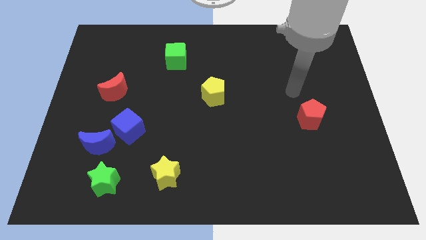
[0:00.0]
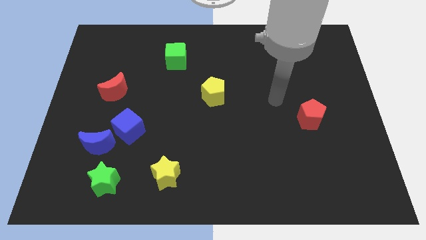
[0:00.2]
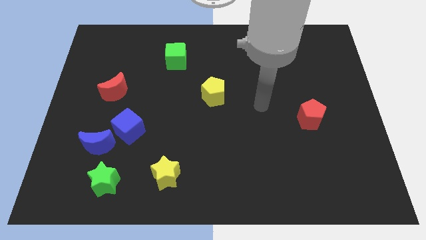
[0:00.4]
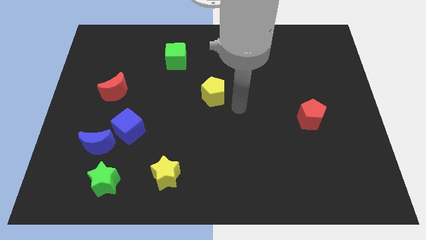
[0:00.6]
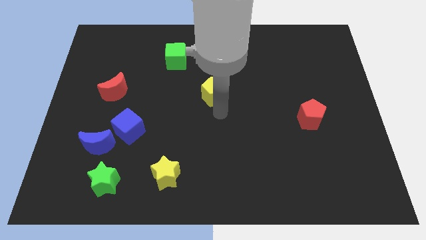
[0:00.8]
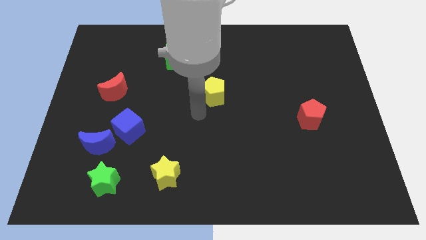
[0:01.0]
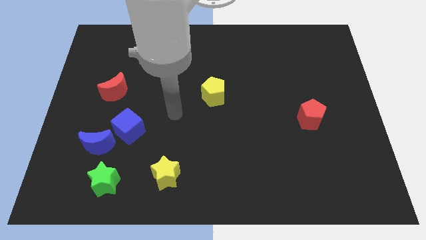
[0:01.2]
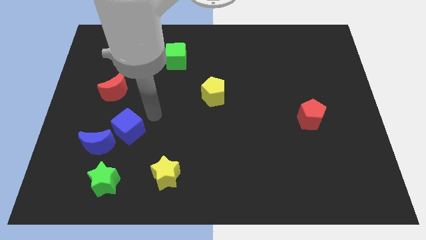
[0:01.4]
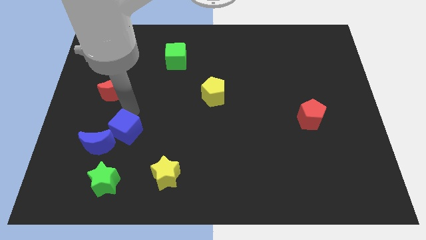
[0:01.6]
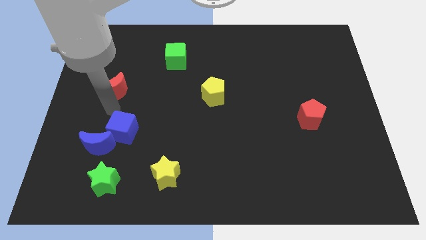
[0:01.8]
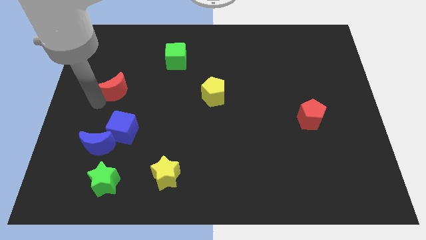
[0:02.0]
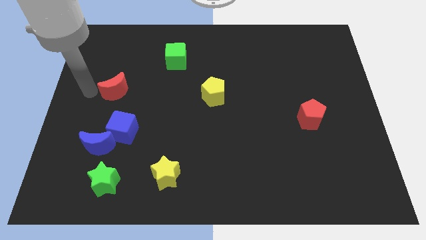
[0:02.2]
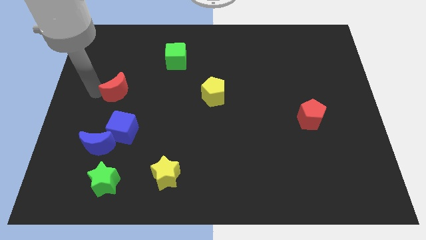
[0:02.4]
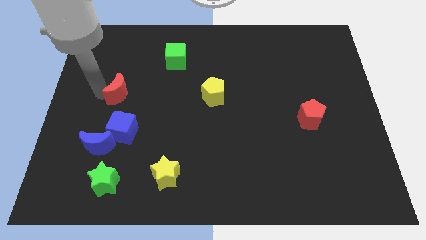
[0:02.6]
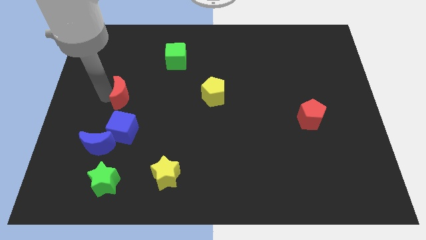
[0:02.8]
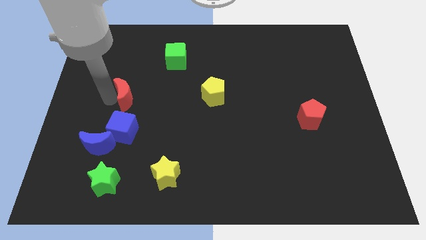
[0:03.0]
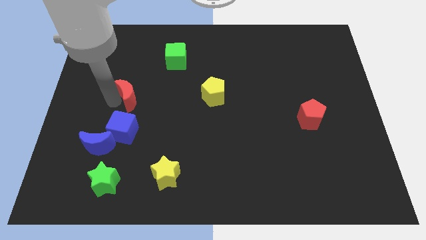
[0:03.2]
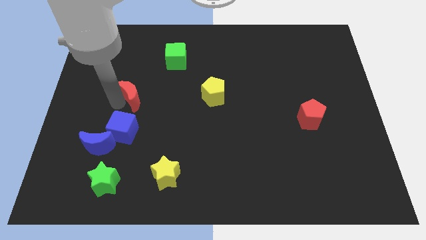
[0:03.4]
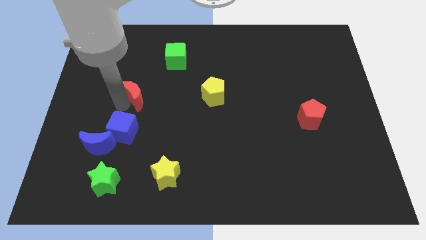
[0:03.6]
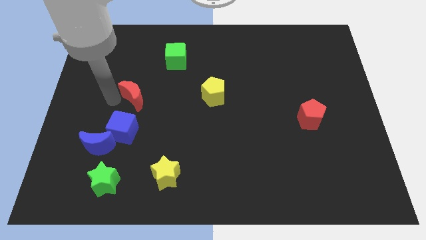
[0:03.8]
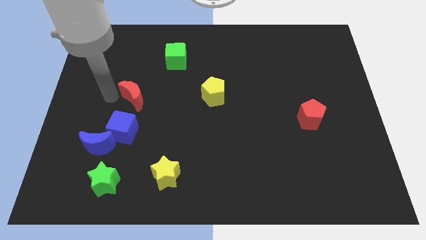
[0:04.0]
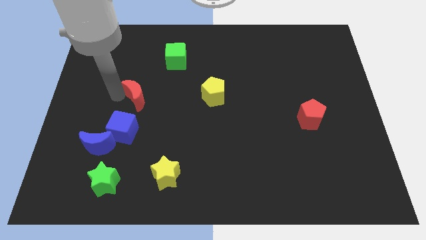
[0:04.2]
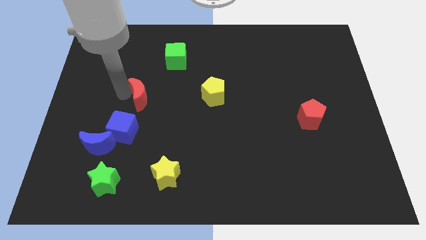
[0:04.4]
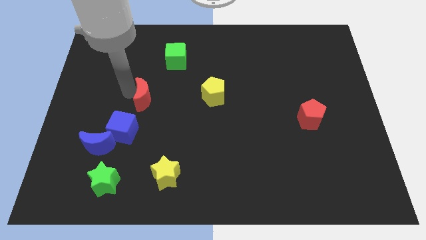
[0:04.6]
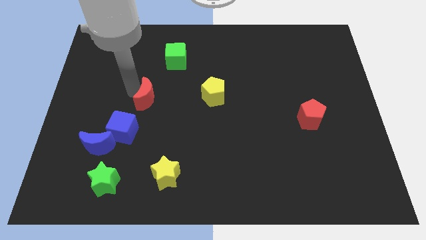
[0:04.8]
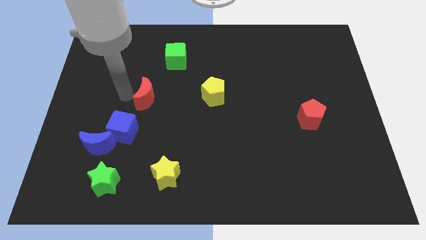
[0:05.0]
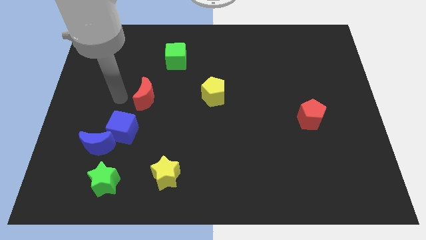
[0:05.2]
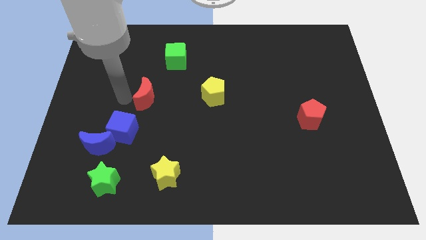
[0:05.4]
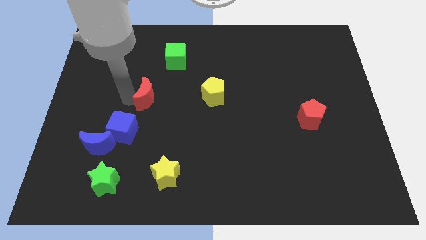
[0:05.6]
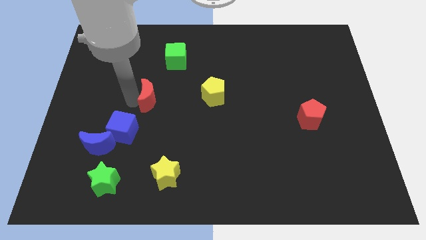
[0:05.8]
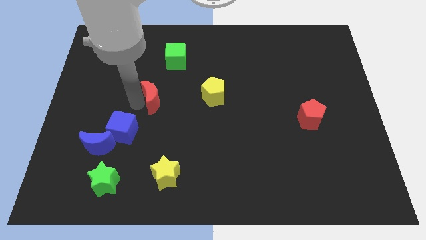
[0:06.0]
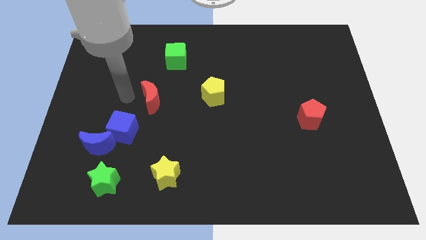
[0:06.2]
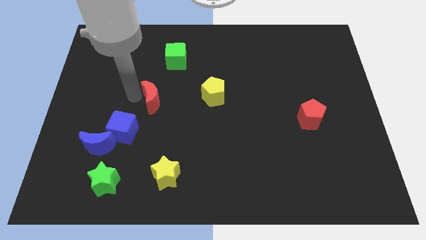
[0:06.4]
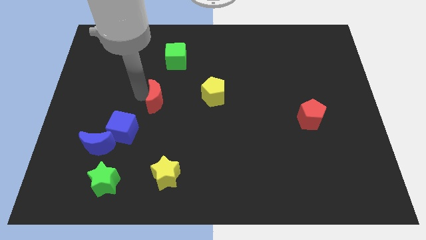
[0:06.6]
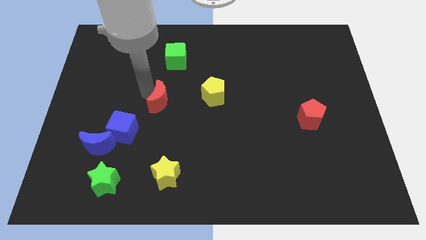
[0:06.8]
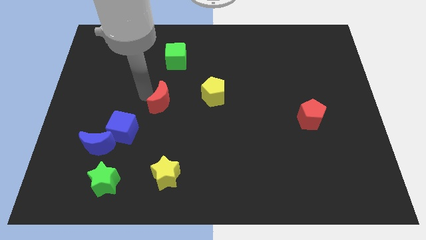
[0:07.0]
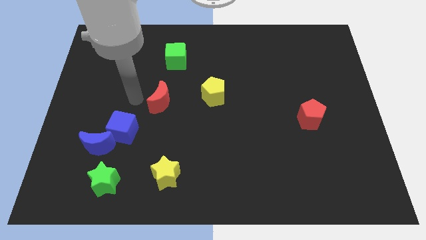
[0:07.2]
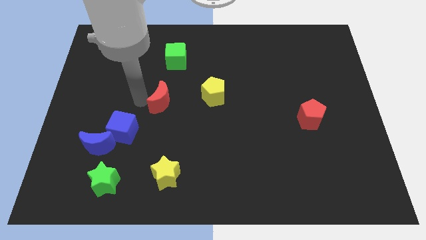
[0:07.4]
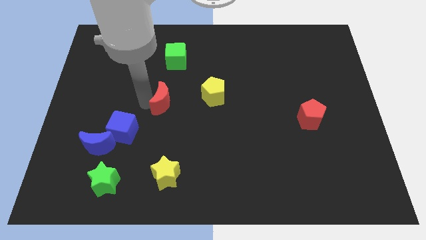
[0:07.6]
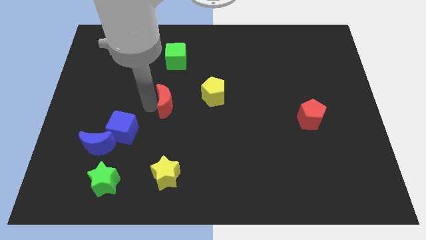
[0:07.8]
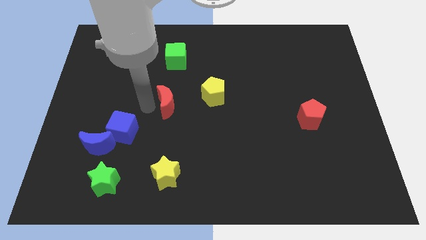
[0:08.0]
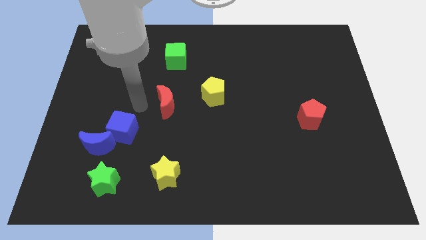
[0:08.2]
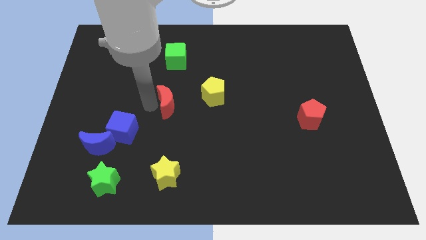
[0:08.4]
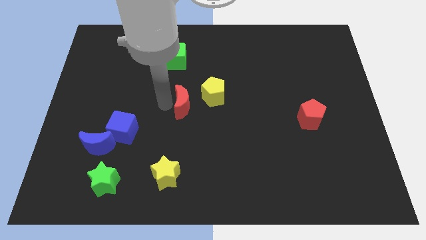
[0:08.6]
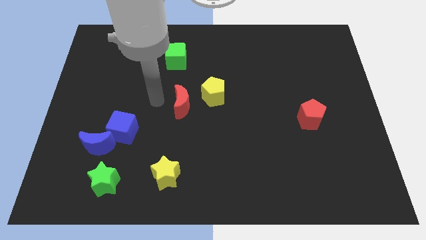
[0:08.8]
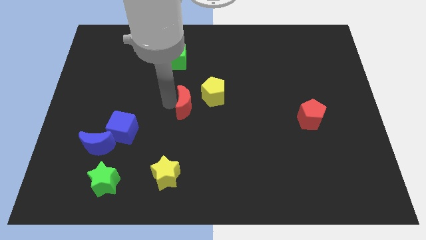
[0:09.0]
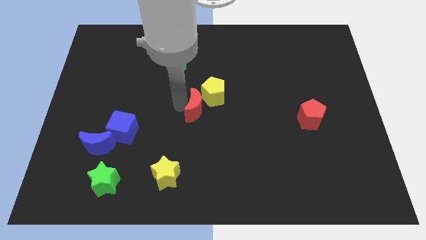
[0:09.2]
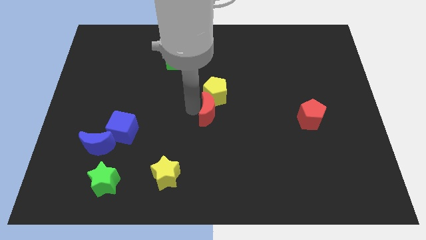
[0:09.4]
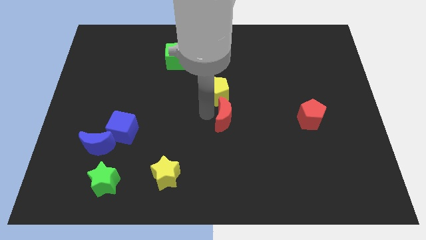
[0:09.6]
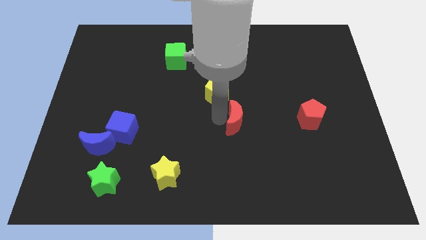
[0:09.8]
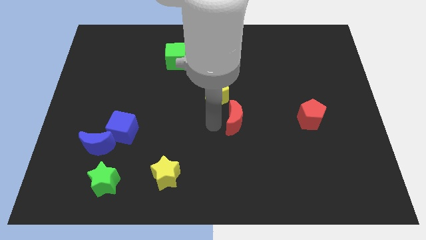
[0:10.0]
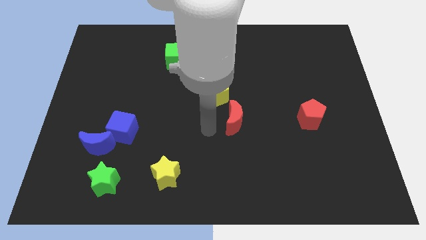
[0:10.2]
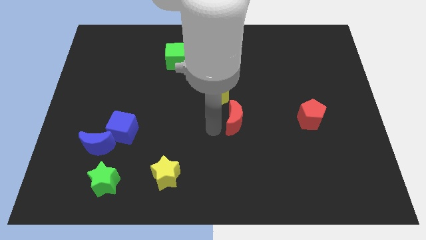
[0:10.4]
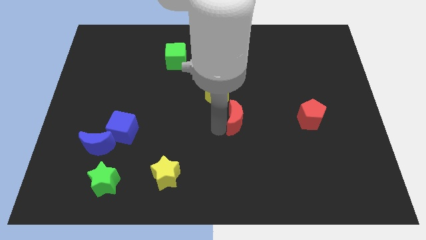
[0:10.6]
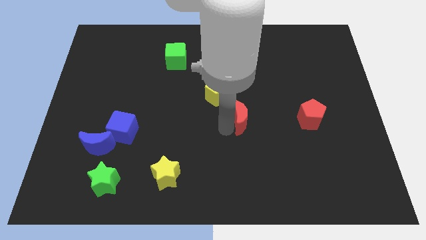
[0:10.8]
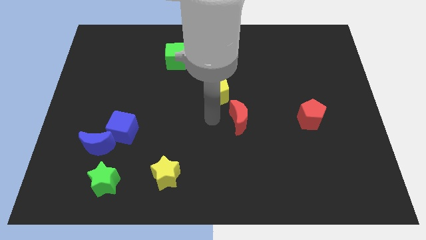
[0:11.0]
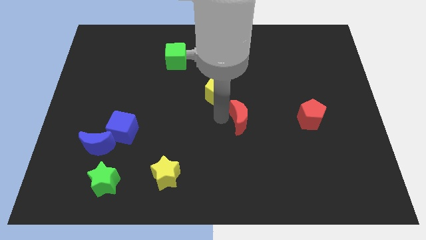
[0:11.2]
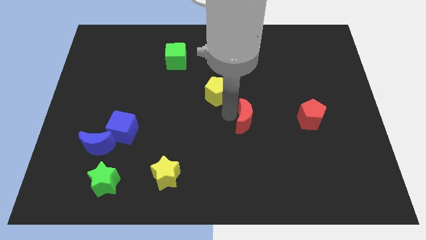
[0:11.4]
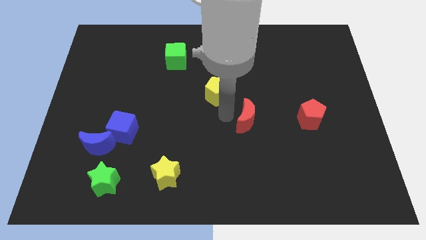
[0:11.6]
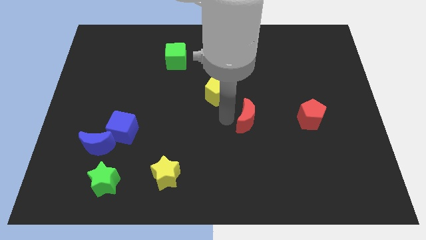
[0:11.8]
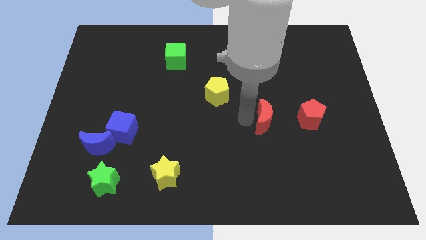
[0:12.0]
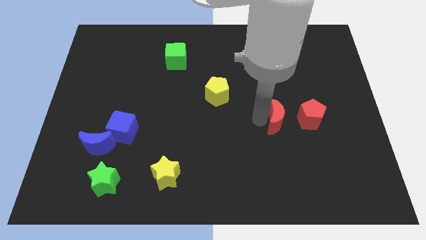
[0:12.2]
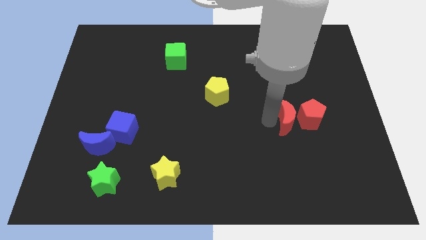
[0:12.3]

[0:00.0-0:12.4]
move the red moon next to the red pentagon

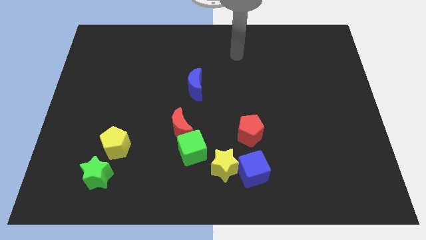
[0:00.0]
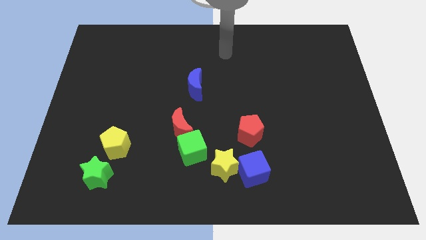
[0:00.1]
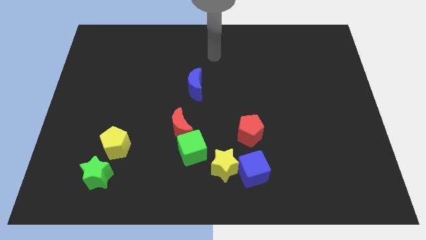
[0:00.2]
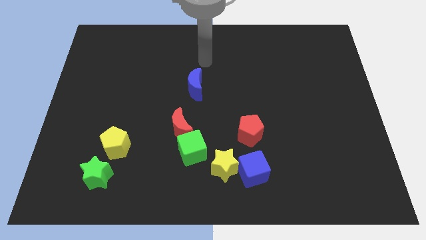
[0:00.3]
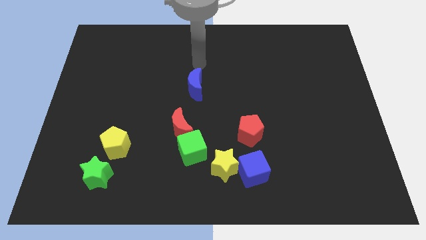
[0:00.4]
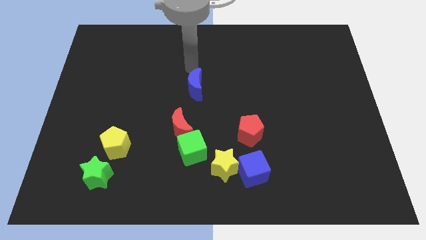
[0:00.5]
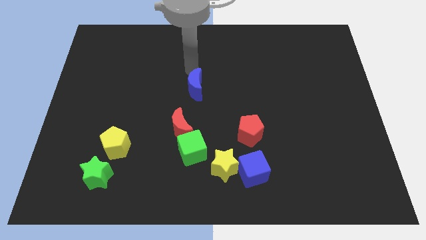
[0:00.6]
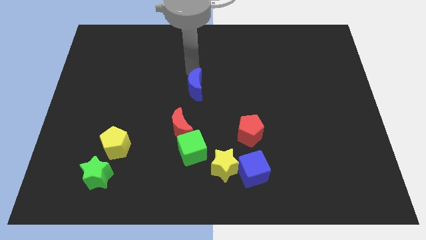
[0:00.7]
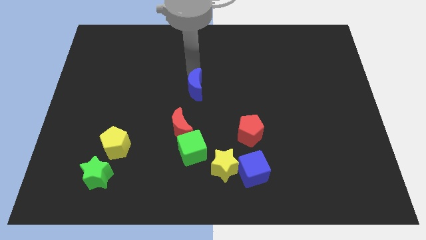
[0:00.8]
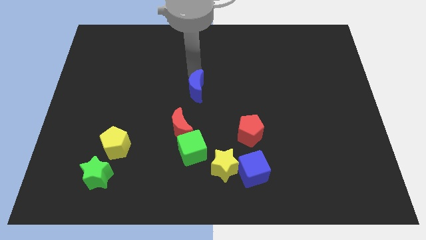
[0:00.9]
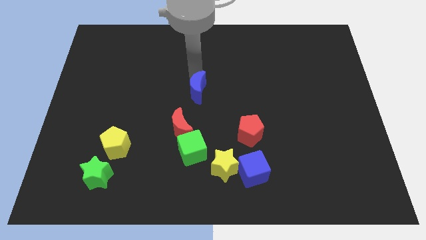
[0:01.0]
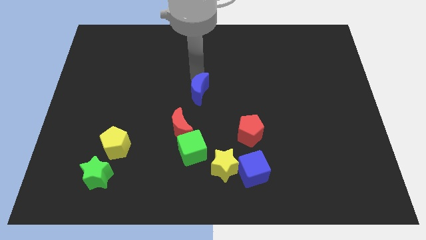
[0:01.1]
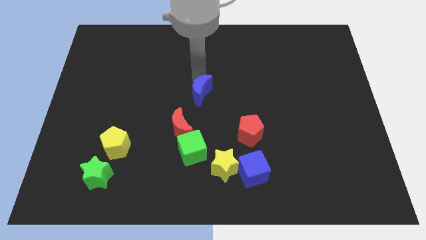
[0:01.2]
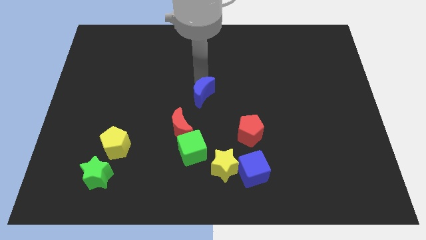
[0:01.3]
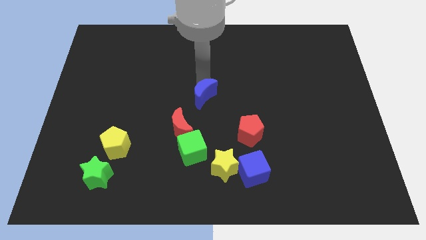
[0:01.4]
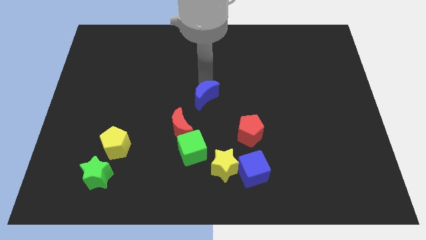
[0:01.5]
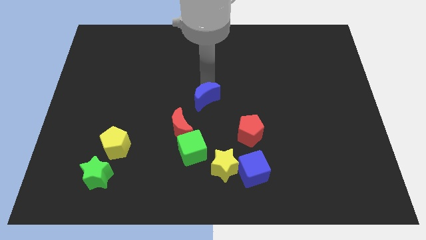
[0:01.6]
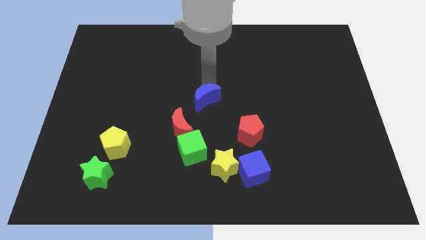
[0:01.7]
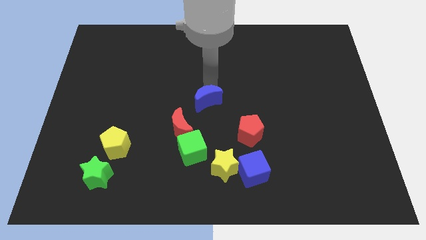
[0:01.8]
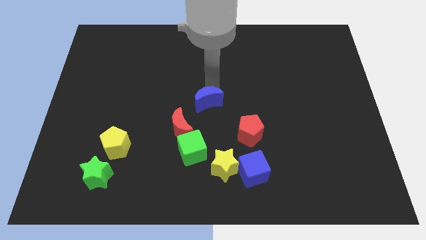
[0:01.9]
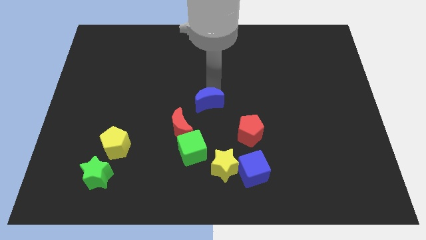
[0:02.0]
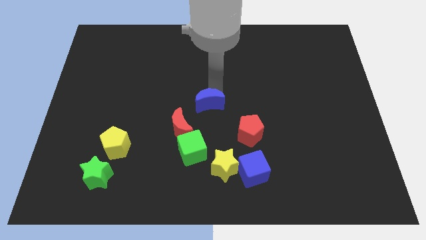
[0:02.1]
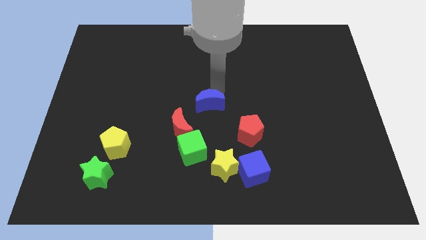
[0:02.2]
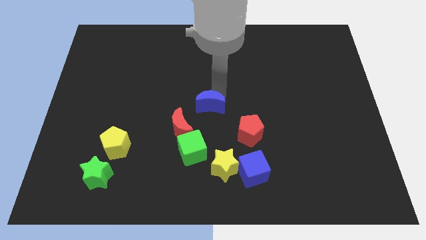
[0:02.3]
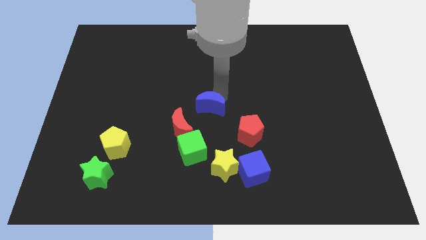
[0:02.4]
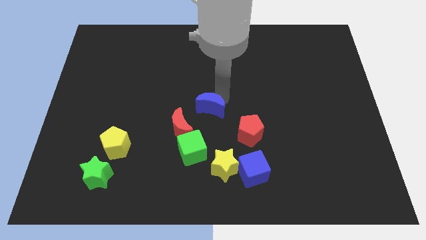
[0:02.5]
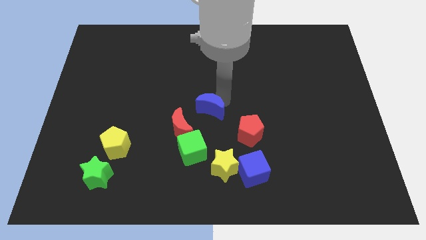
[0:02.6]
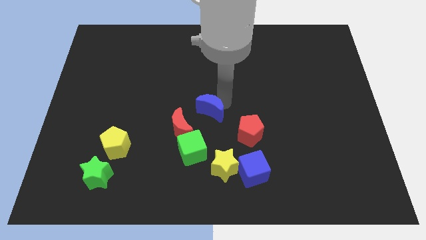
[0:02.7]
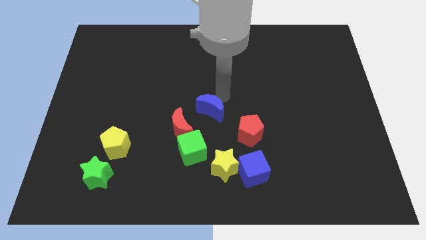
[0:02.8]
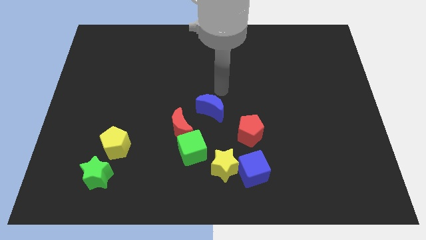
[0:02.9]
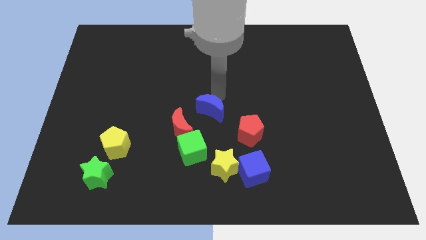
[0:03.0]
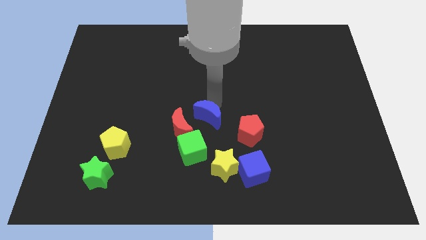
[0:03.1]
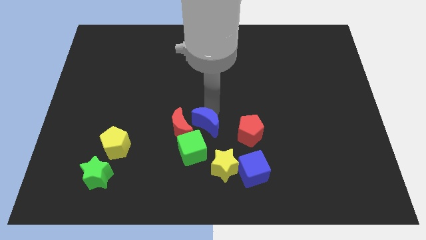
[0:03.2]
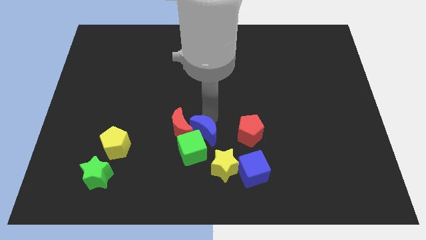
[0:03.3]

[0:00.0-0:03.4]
push the blue moon next to the green cube
